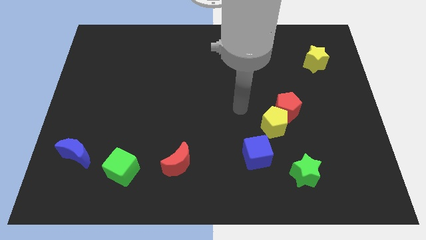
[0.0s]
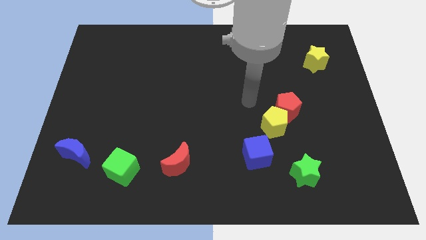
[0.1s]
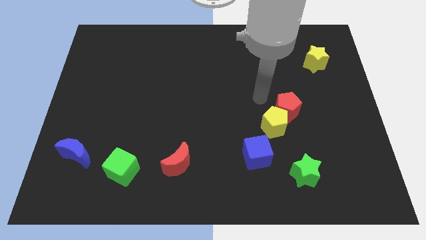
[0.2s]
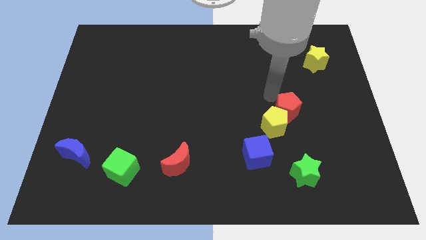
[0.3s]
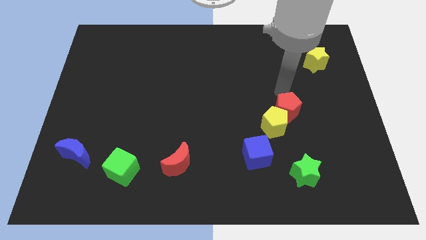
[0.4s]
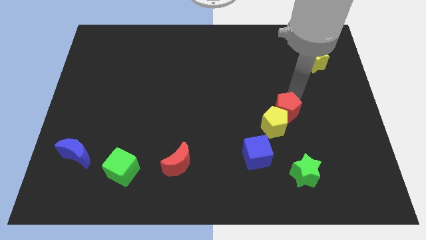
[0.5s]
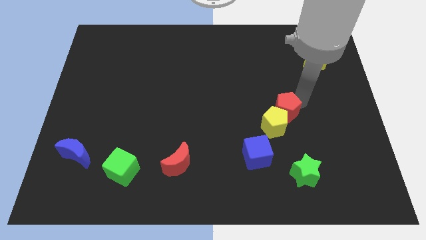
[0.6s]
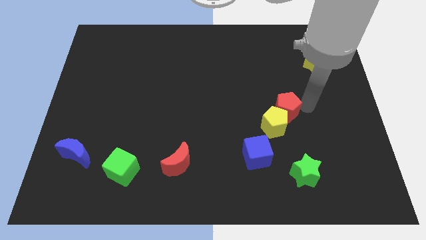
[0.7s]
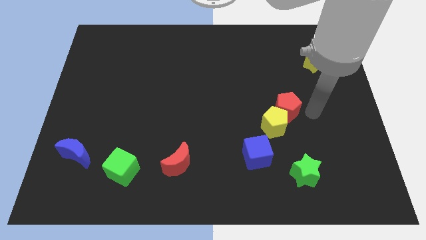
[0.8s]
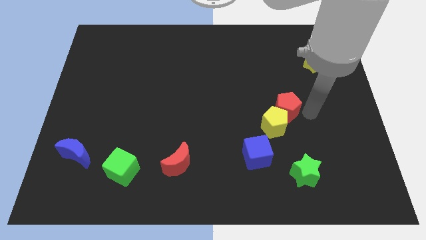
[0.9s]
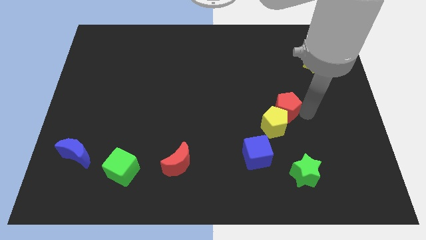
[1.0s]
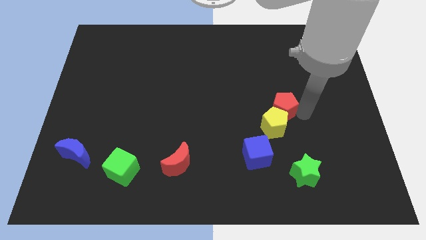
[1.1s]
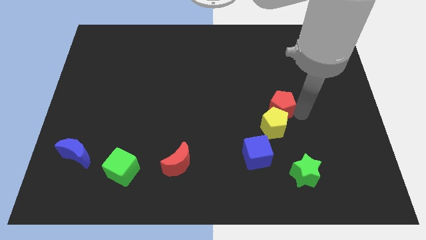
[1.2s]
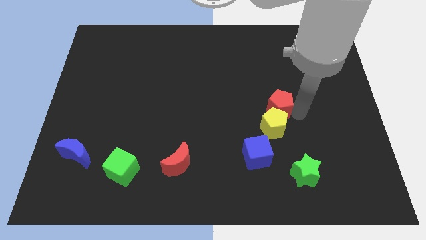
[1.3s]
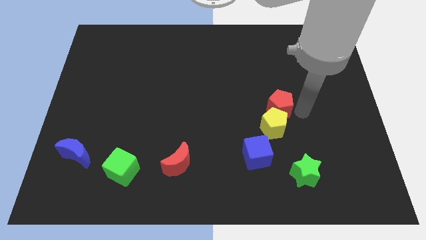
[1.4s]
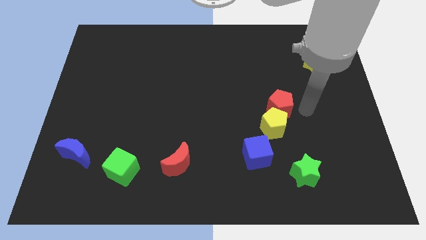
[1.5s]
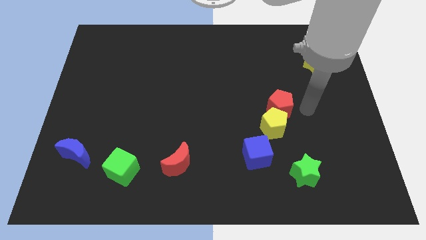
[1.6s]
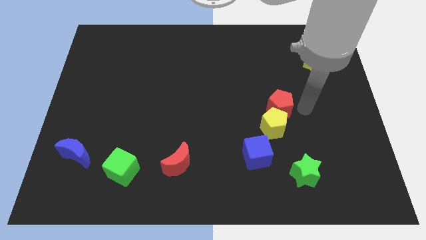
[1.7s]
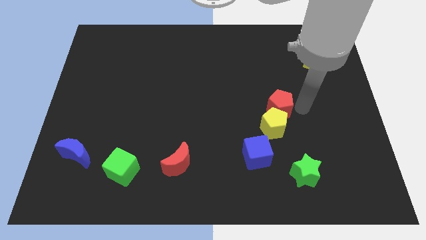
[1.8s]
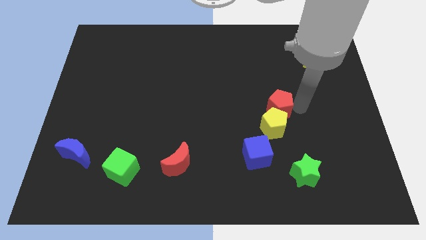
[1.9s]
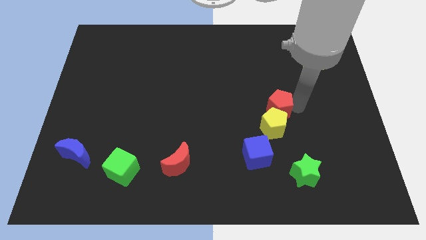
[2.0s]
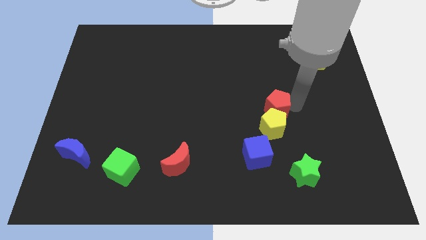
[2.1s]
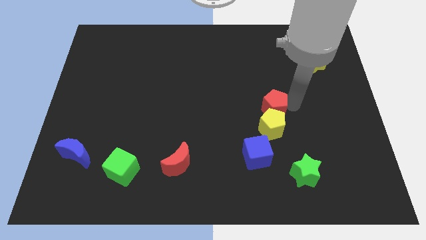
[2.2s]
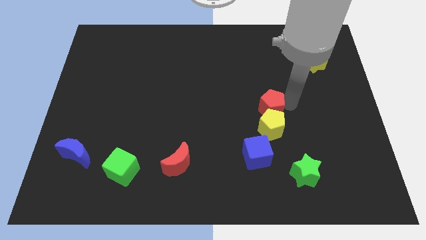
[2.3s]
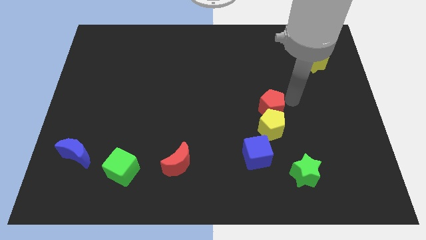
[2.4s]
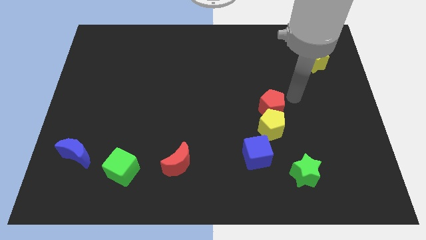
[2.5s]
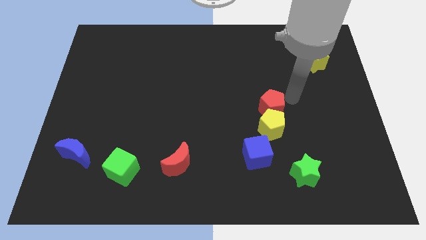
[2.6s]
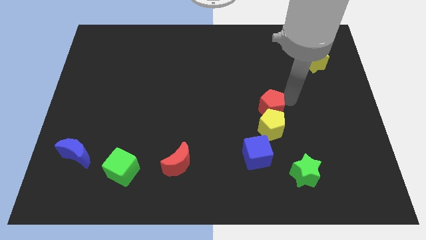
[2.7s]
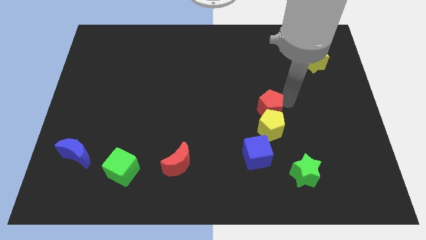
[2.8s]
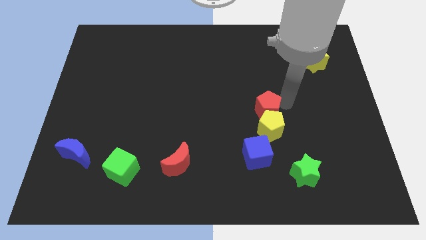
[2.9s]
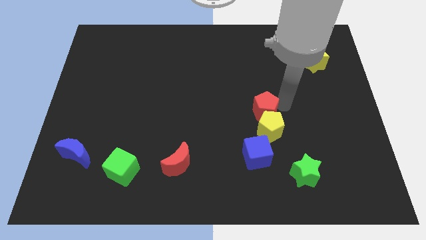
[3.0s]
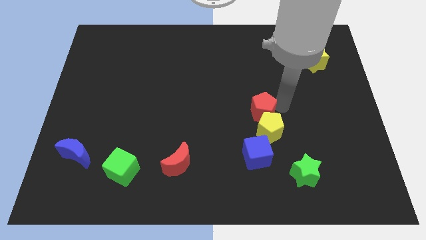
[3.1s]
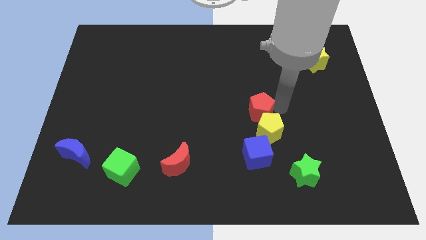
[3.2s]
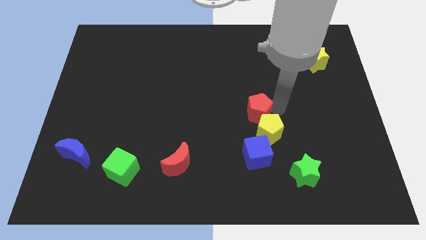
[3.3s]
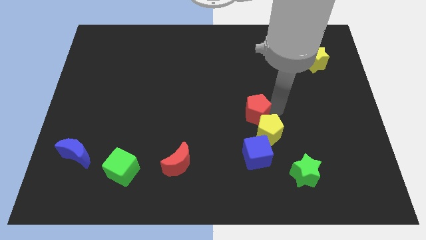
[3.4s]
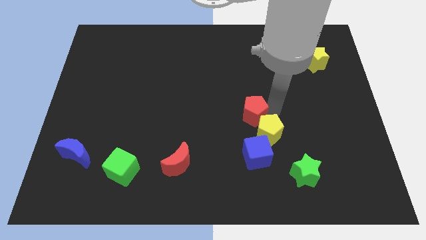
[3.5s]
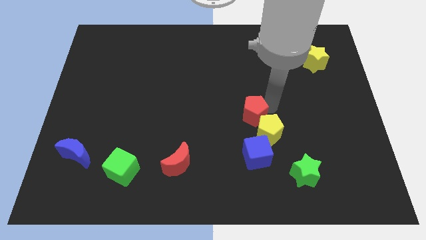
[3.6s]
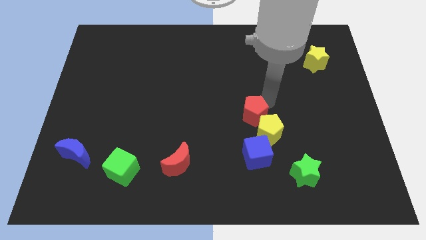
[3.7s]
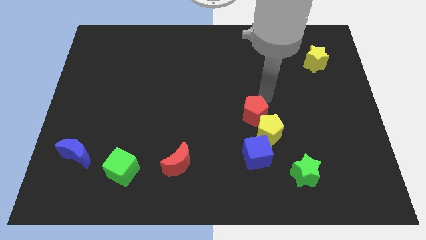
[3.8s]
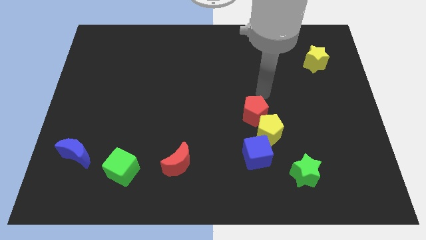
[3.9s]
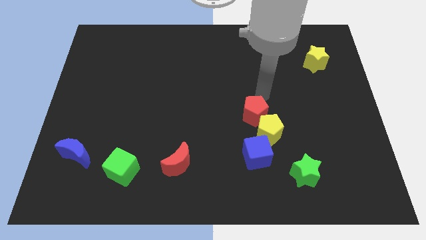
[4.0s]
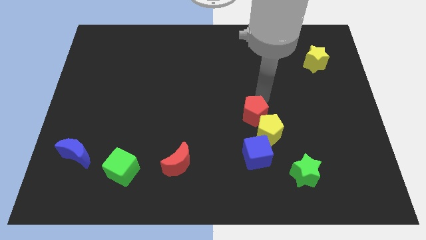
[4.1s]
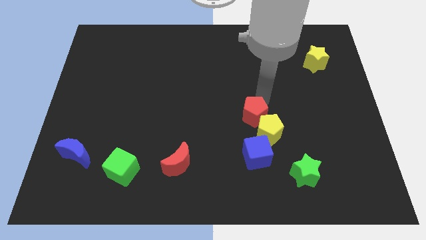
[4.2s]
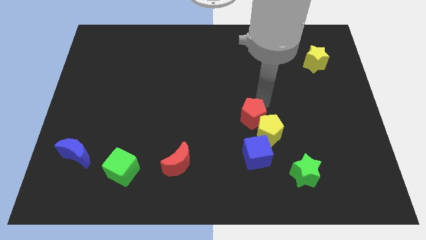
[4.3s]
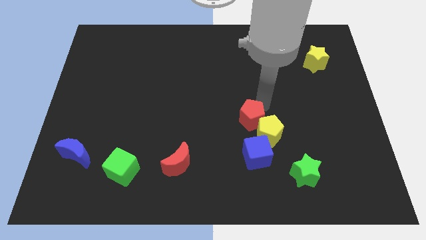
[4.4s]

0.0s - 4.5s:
move the red pentagon a little bit downwards and to the left

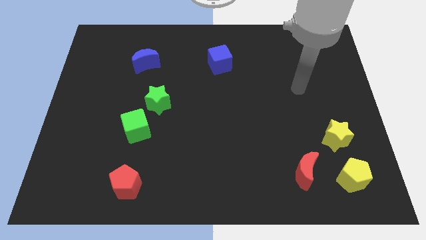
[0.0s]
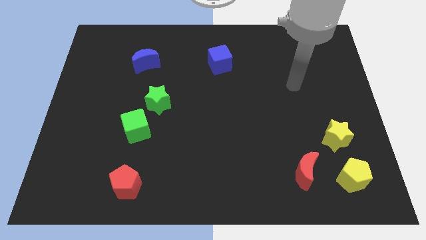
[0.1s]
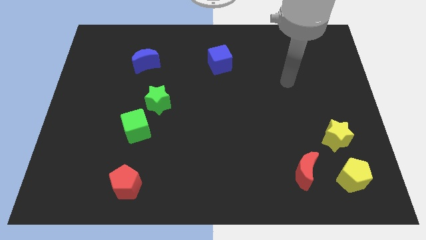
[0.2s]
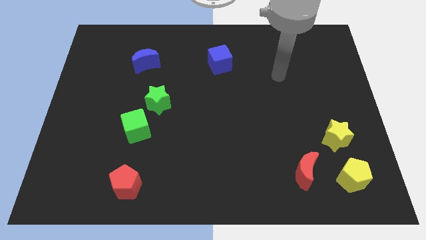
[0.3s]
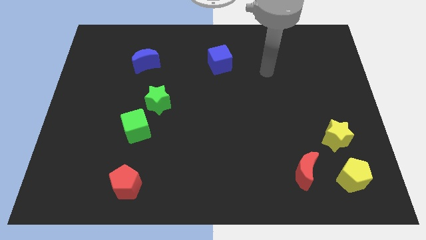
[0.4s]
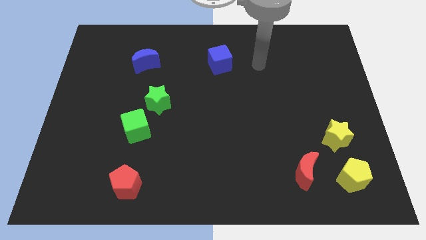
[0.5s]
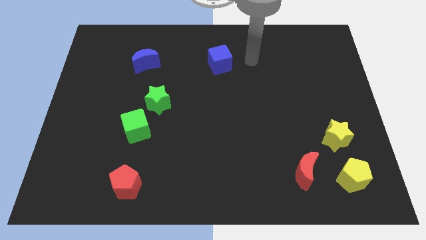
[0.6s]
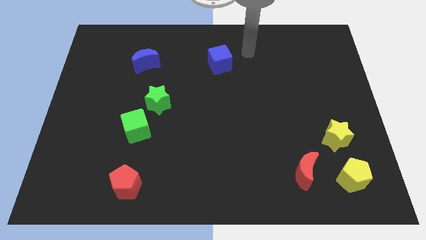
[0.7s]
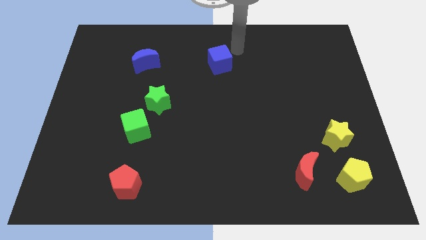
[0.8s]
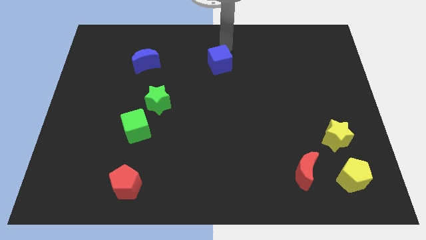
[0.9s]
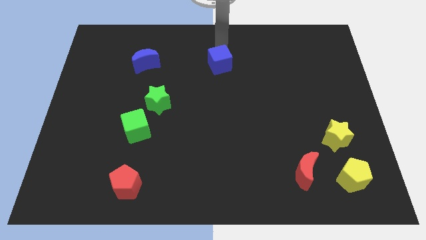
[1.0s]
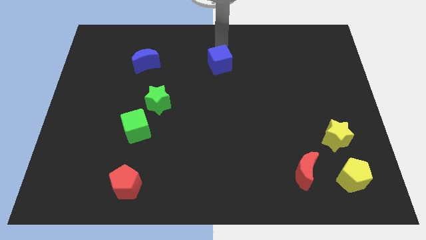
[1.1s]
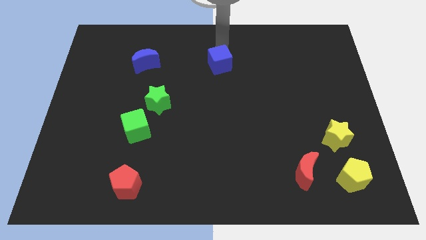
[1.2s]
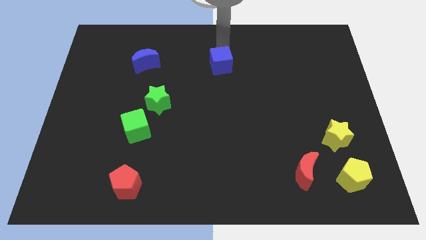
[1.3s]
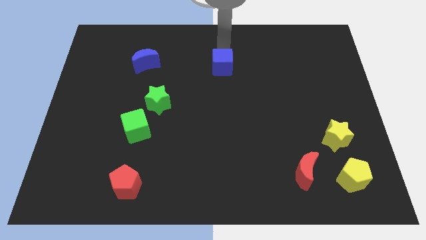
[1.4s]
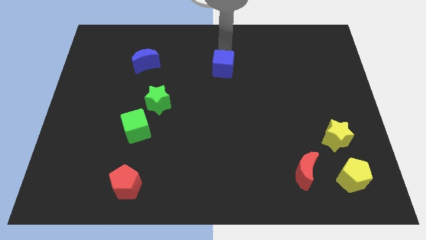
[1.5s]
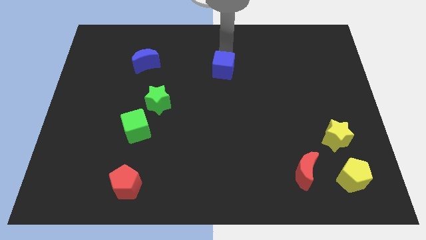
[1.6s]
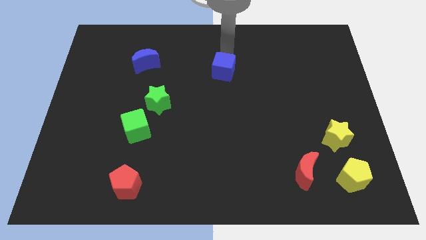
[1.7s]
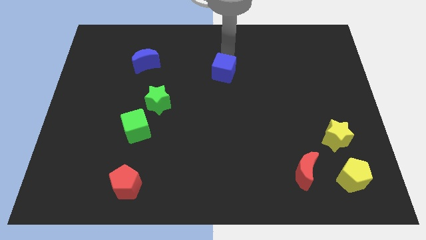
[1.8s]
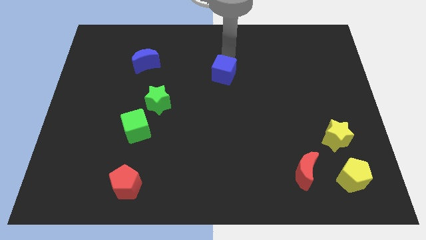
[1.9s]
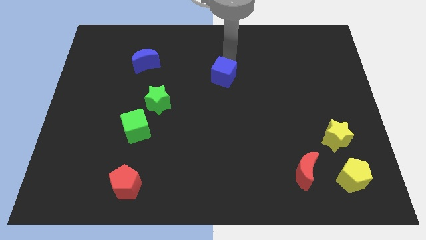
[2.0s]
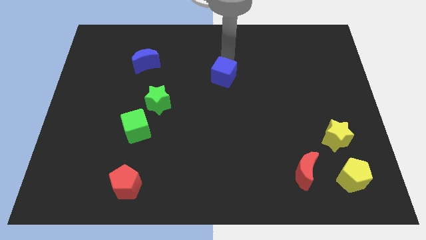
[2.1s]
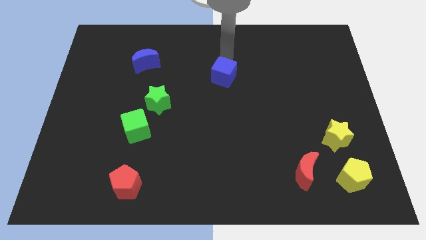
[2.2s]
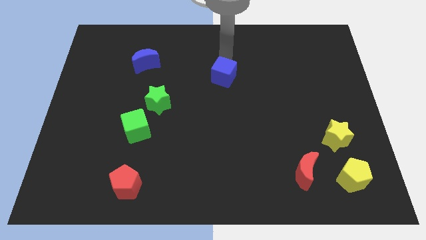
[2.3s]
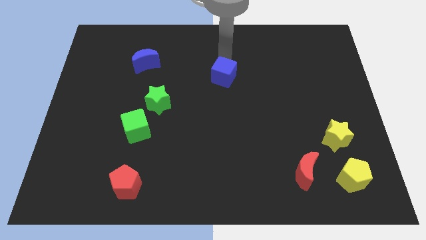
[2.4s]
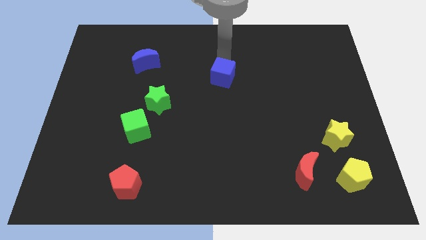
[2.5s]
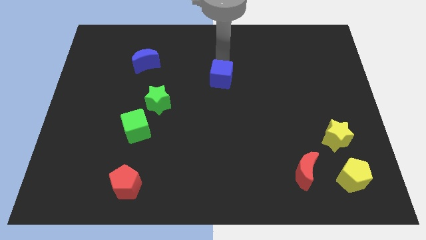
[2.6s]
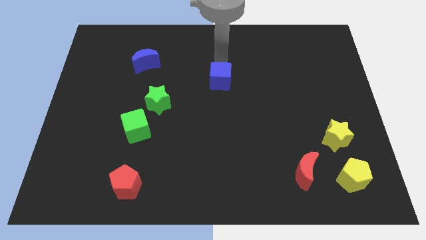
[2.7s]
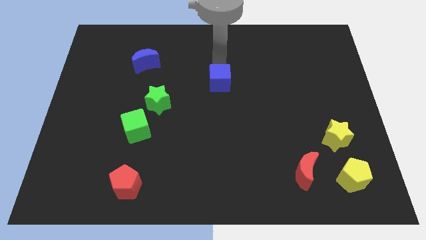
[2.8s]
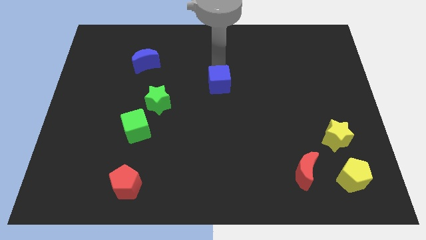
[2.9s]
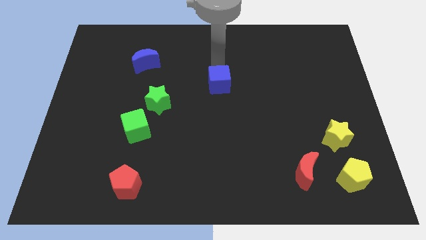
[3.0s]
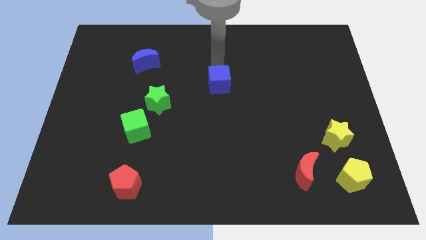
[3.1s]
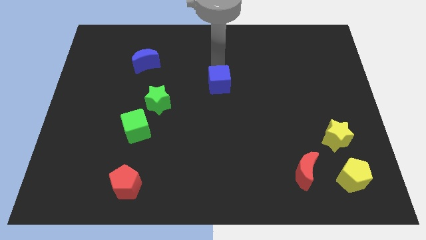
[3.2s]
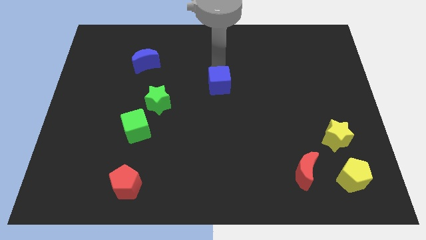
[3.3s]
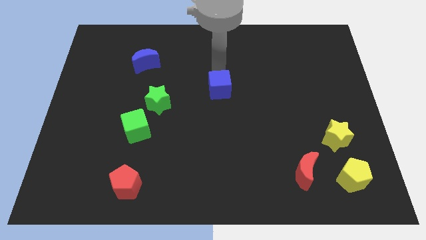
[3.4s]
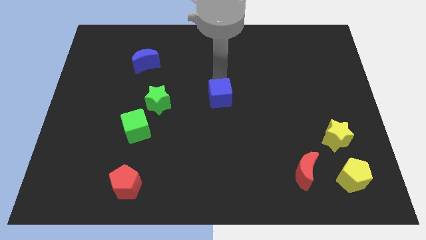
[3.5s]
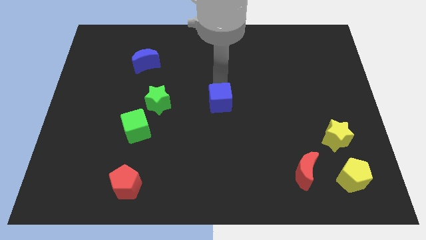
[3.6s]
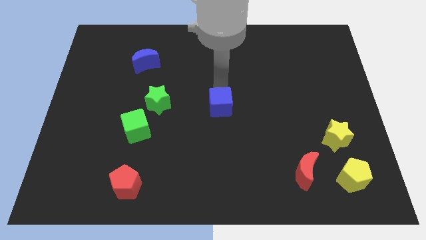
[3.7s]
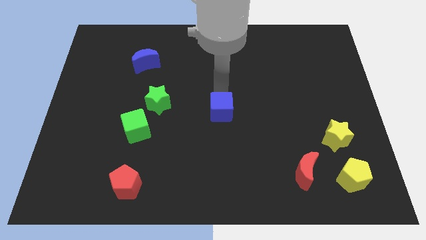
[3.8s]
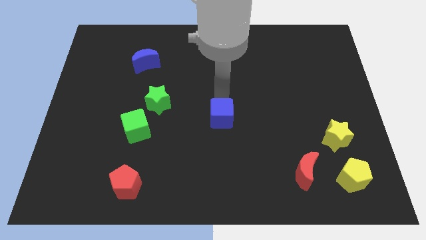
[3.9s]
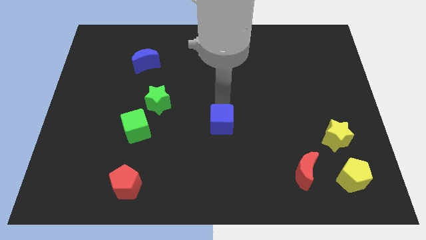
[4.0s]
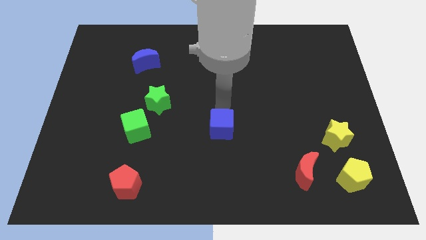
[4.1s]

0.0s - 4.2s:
move the blue cube down
